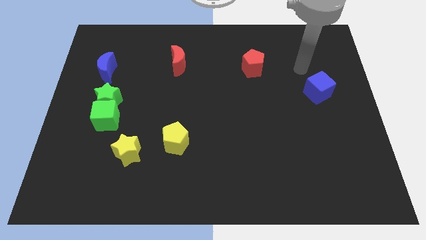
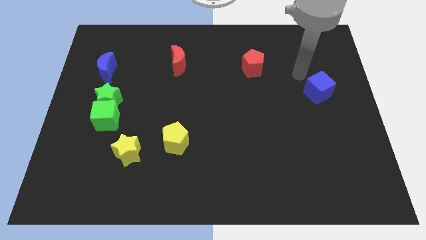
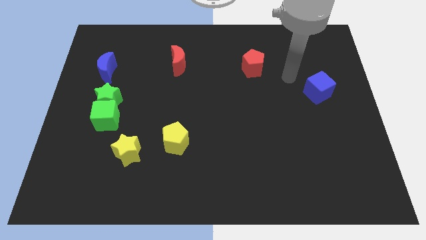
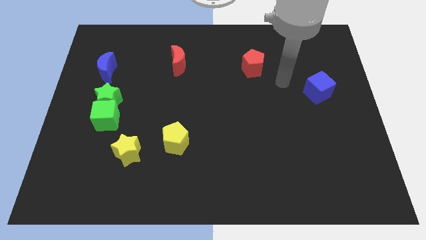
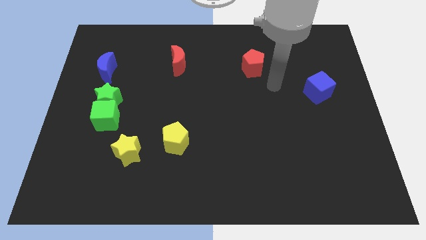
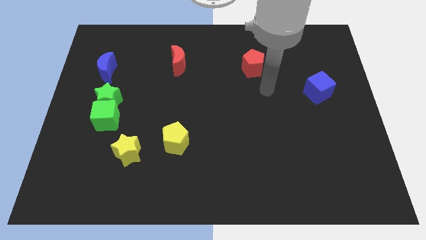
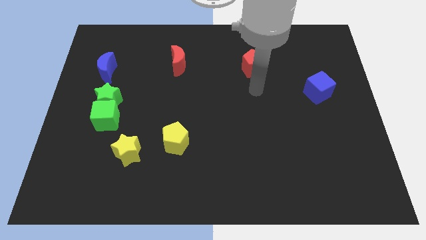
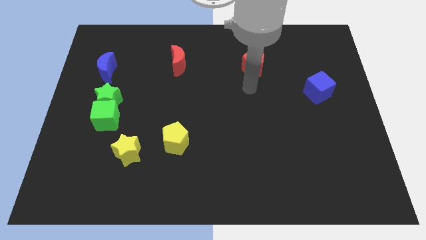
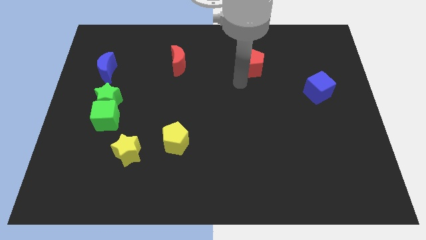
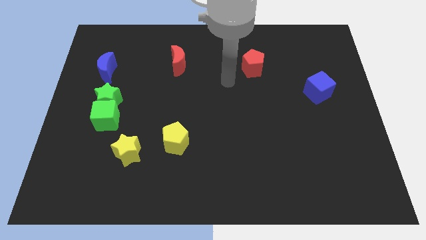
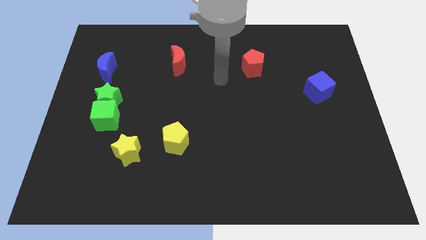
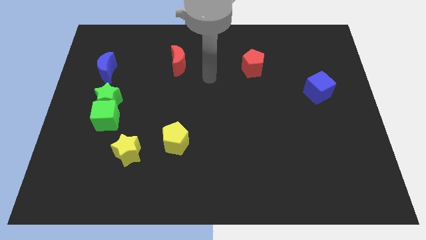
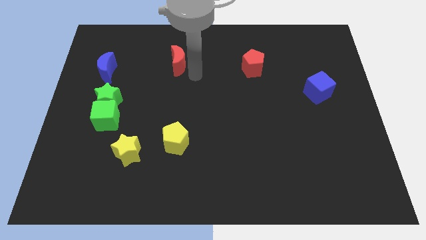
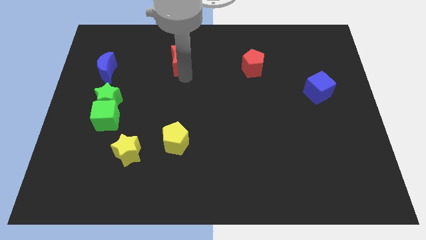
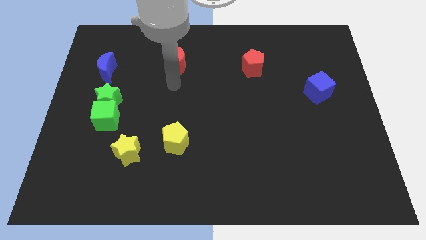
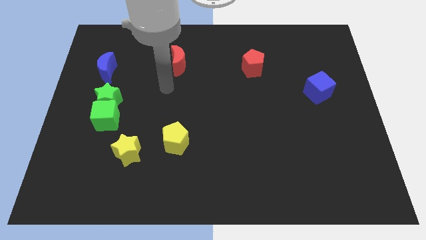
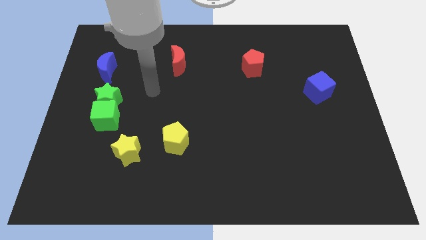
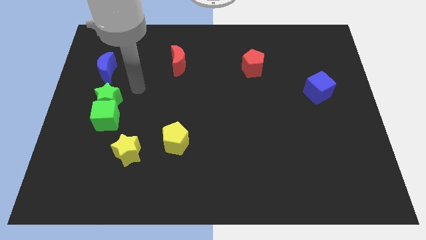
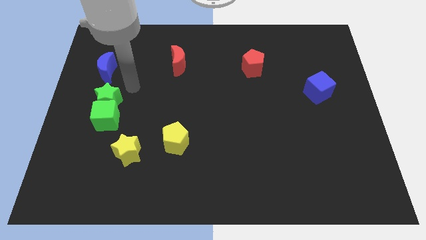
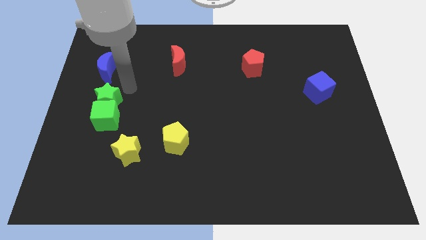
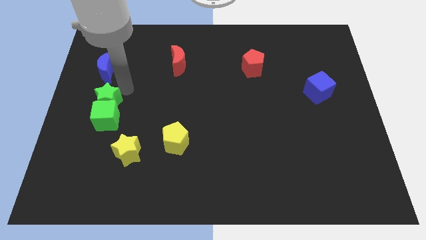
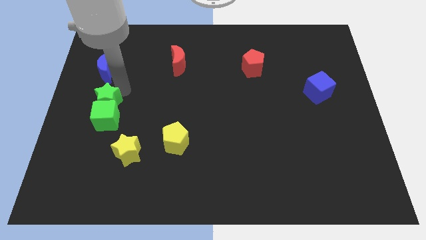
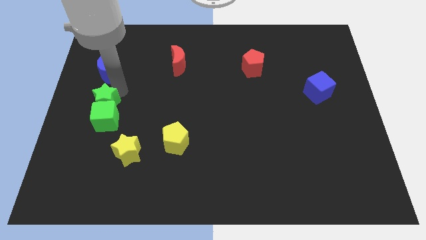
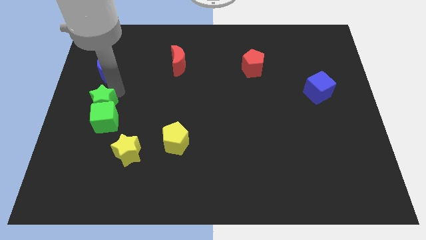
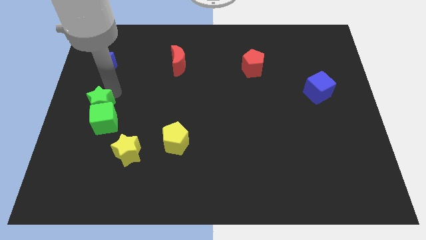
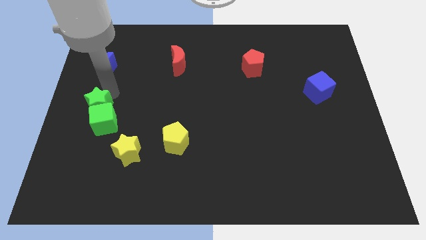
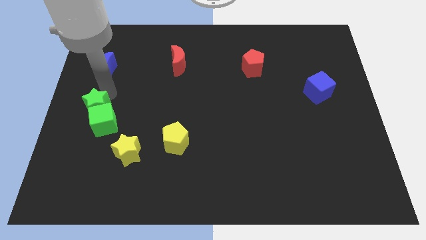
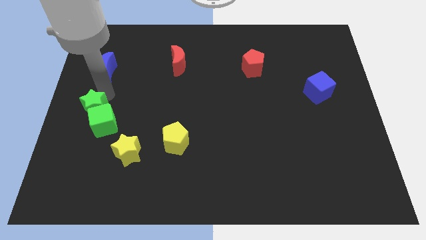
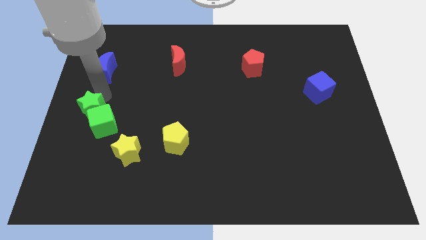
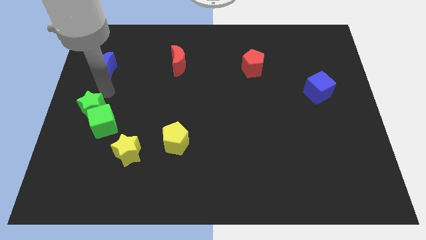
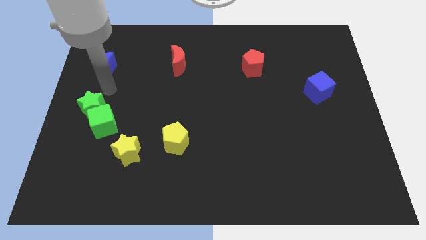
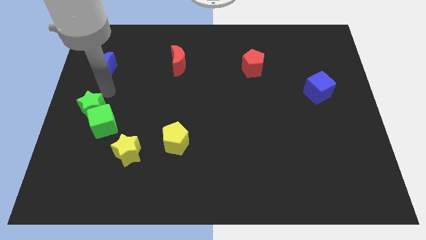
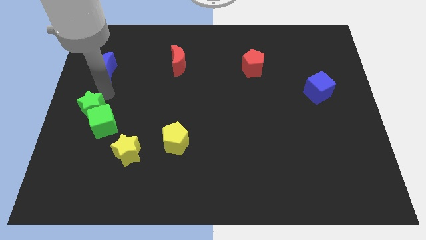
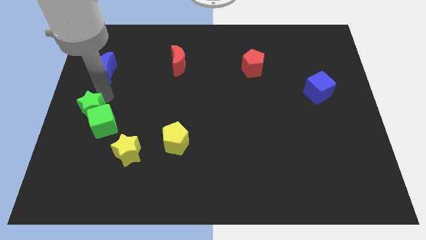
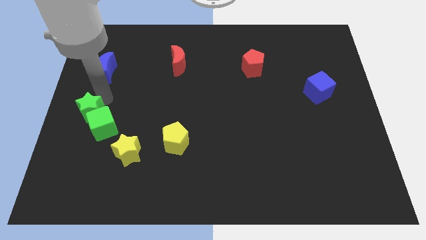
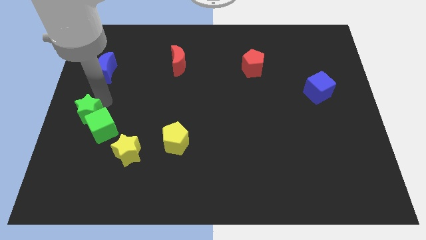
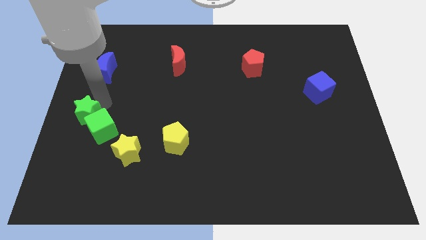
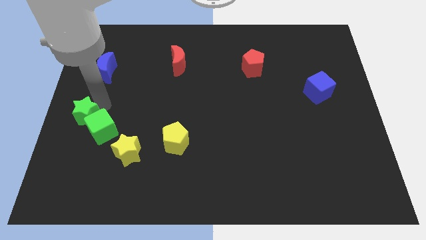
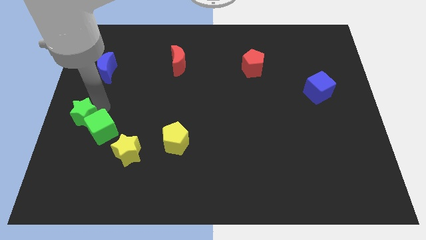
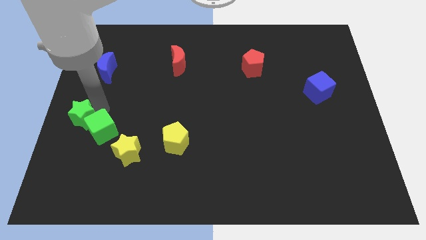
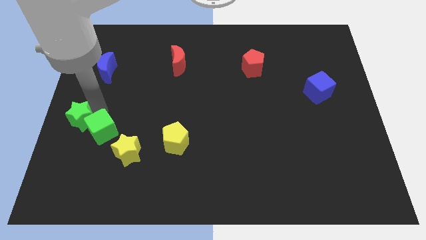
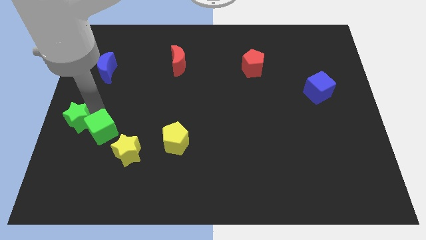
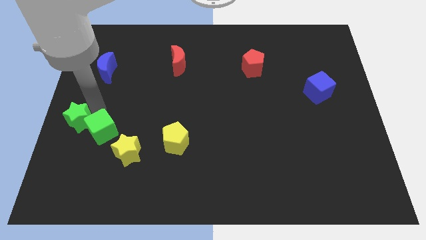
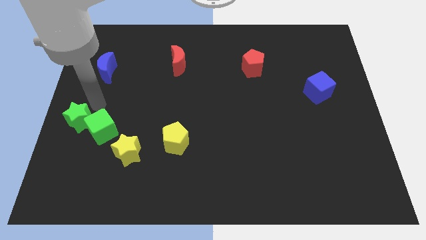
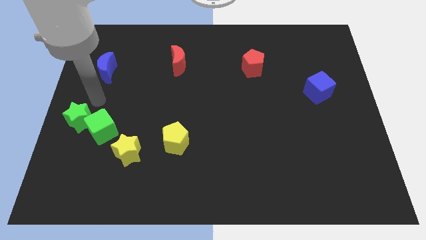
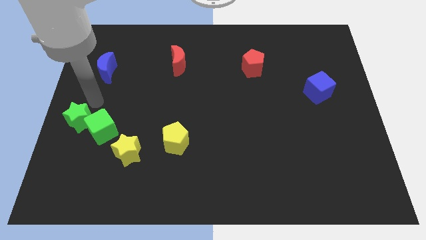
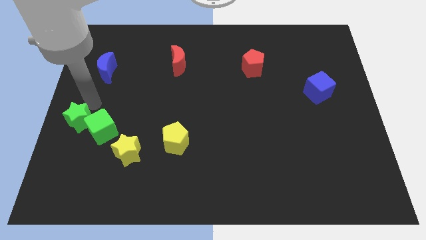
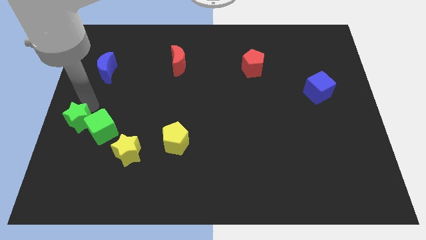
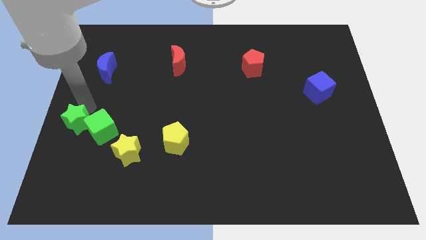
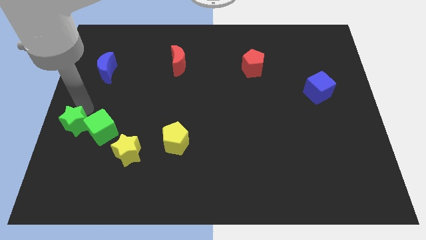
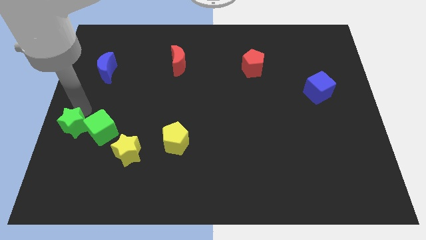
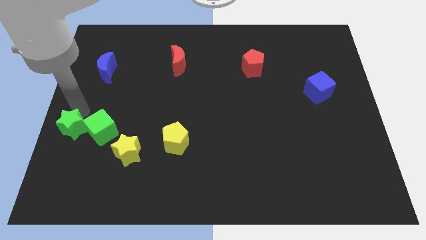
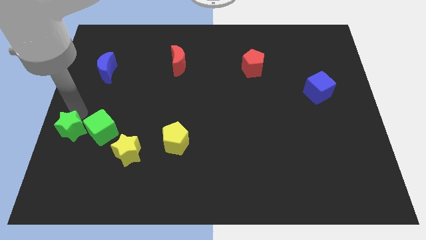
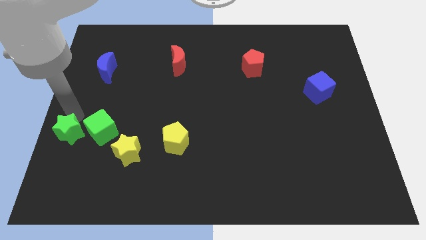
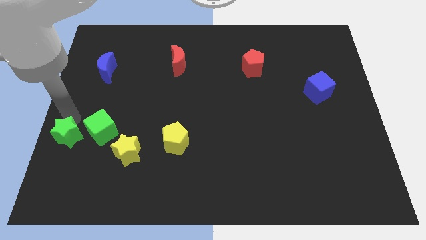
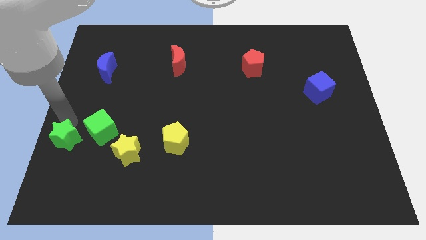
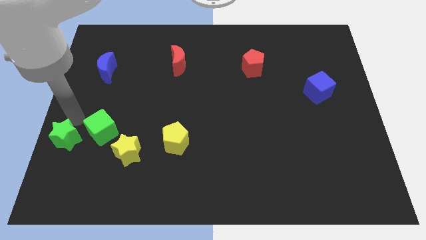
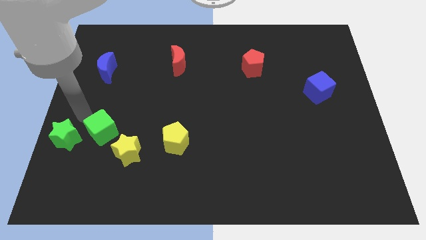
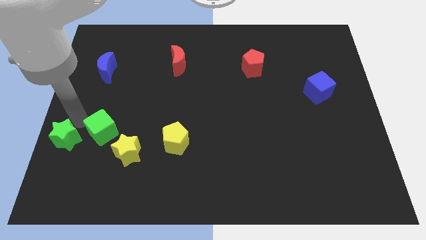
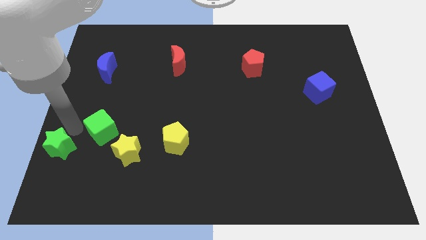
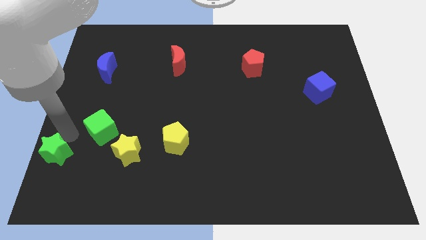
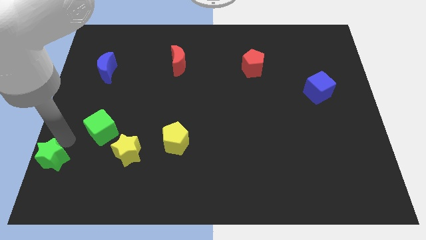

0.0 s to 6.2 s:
move the green star to the lower left corner

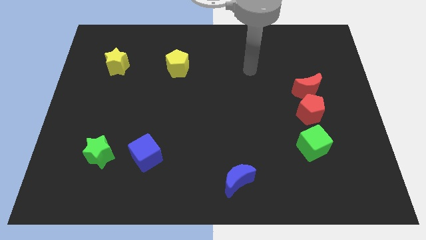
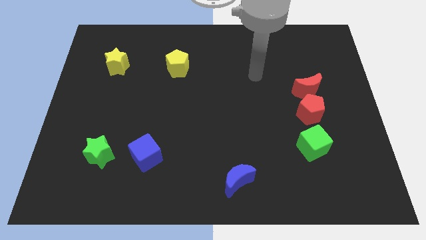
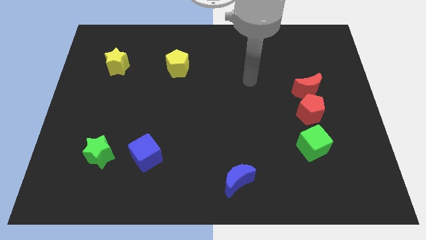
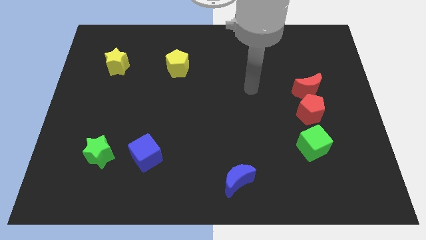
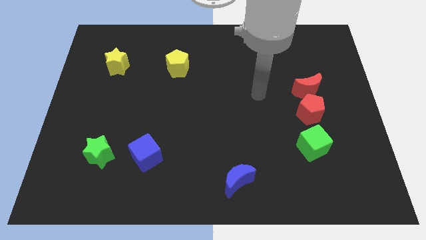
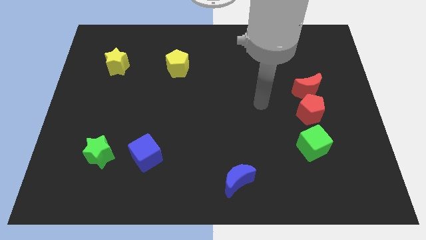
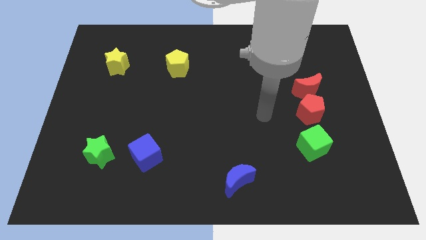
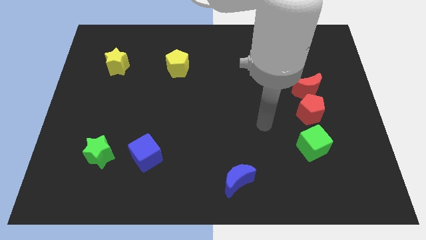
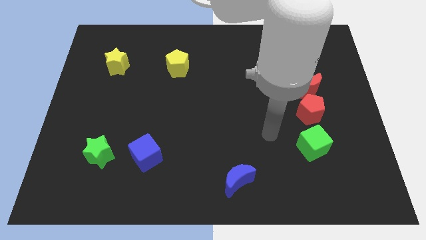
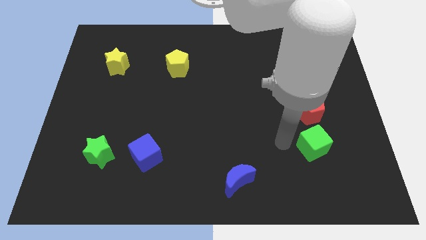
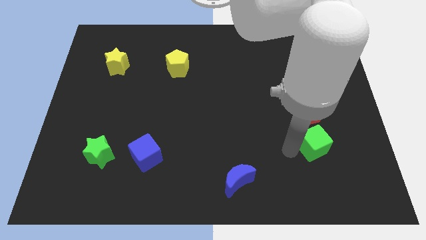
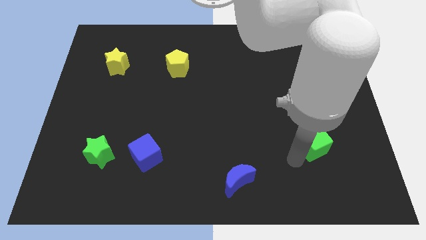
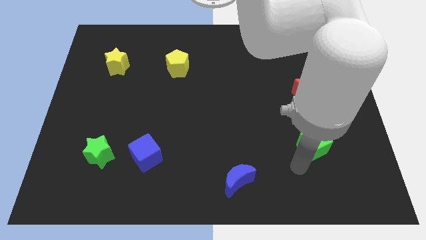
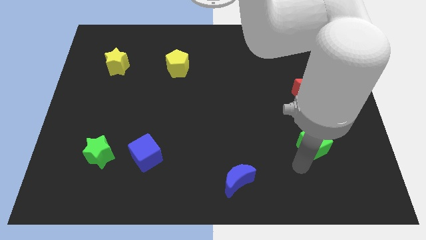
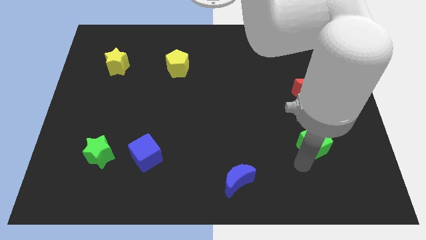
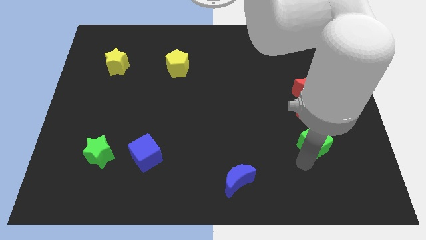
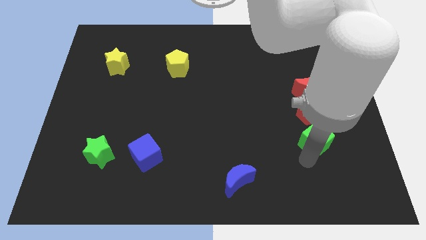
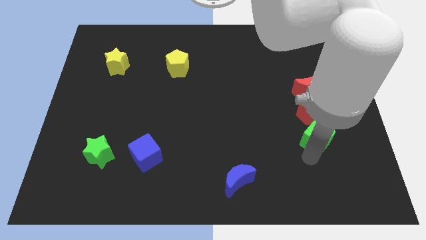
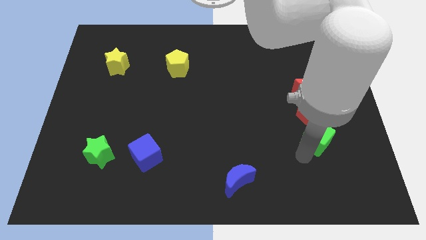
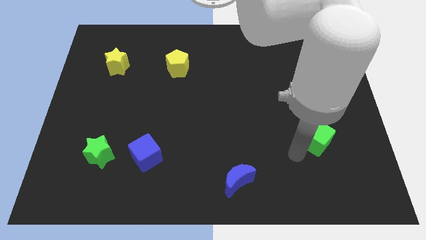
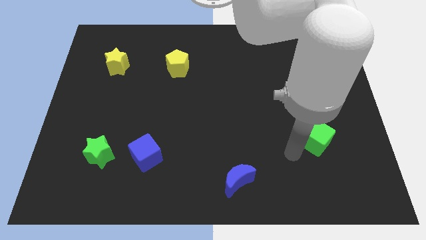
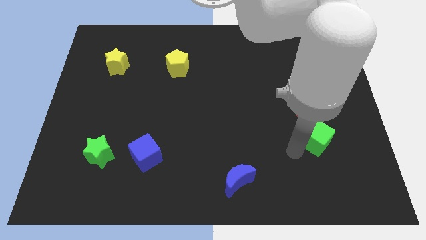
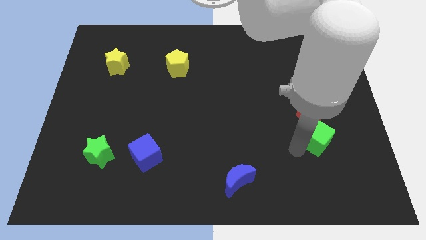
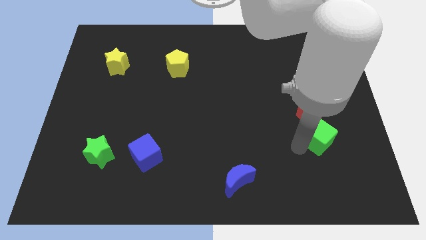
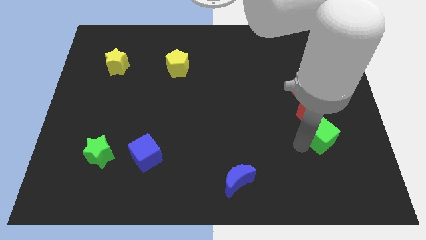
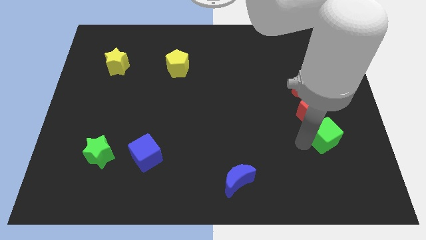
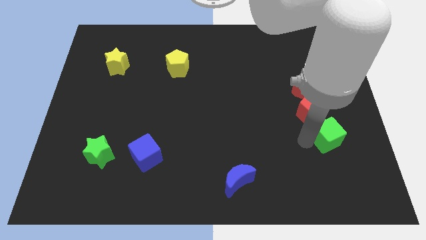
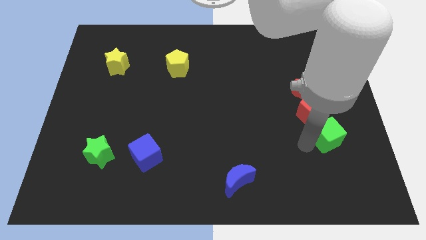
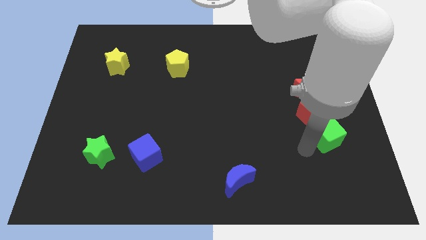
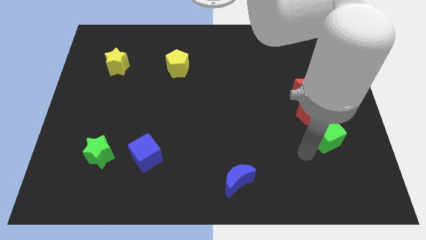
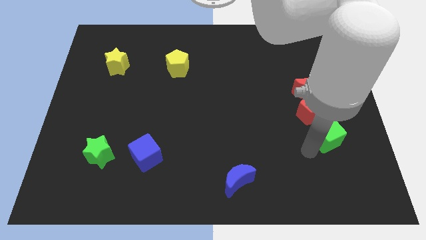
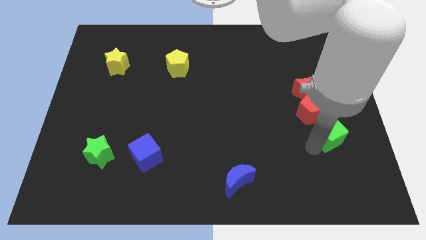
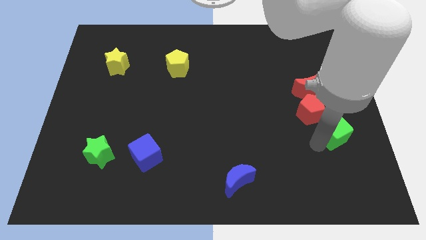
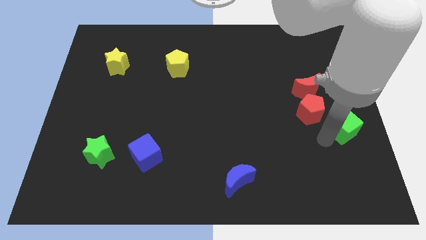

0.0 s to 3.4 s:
slide the green cube to the center right
